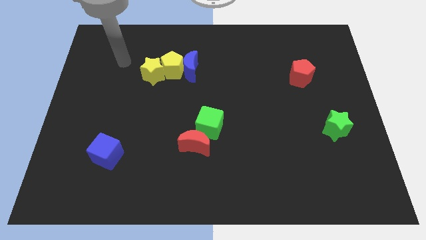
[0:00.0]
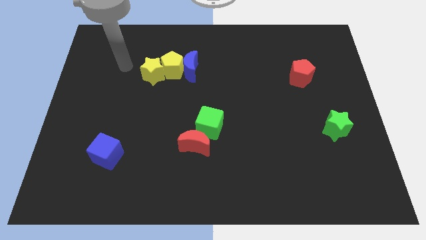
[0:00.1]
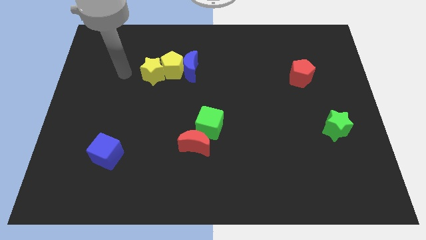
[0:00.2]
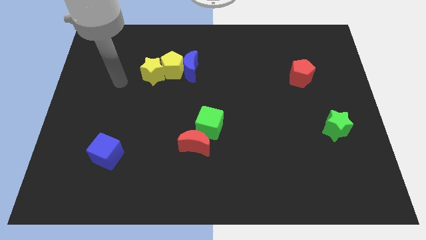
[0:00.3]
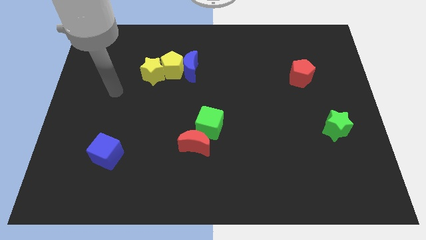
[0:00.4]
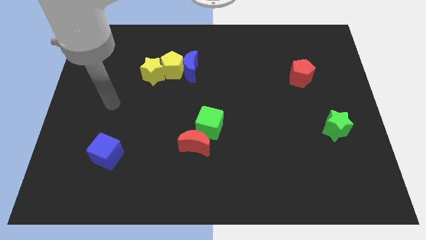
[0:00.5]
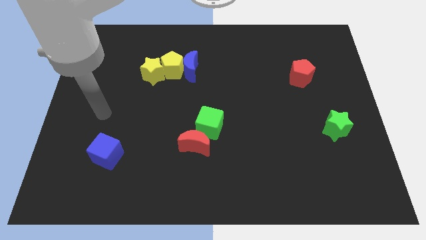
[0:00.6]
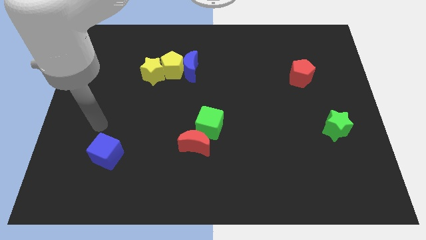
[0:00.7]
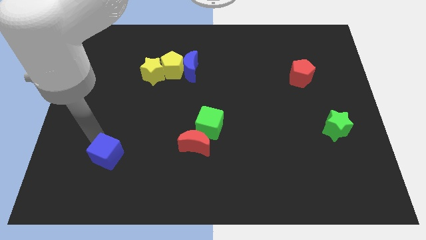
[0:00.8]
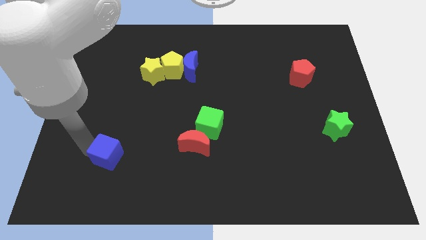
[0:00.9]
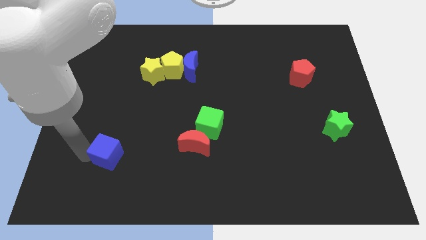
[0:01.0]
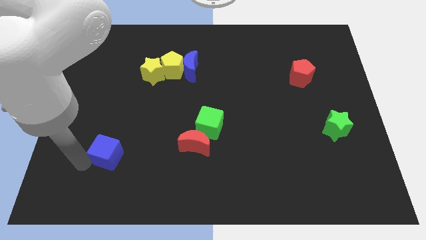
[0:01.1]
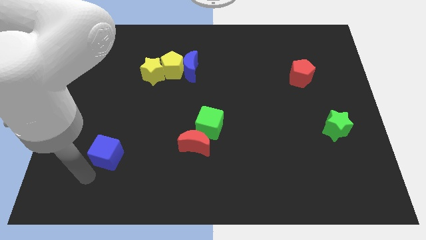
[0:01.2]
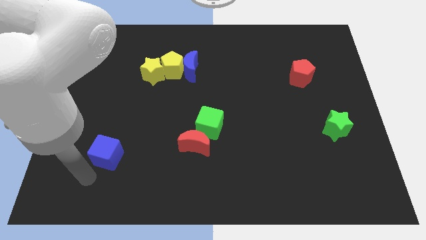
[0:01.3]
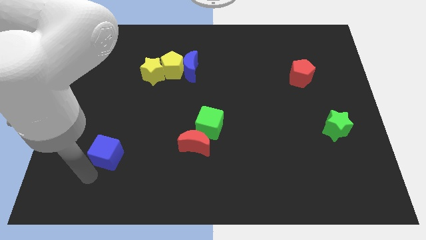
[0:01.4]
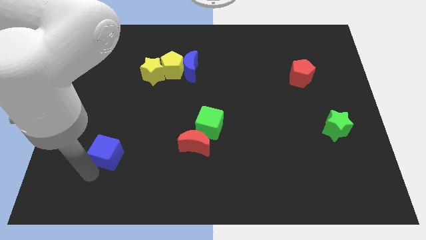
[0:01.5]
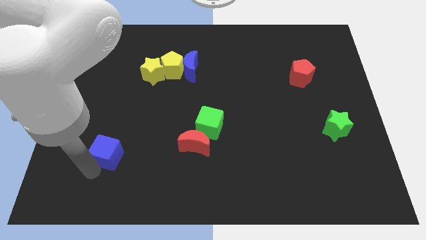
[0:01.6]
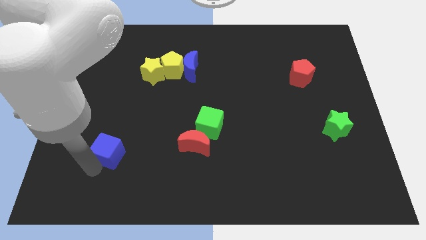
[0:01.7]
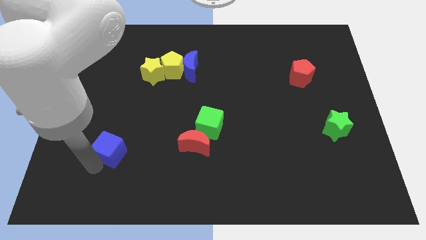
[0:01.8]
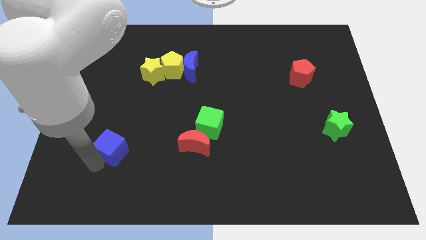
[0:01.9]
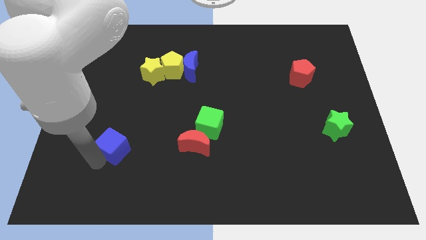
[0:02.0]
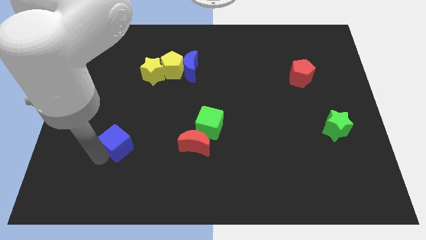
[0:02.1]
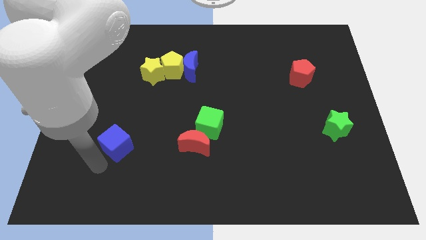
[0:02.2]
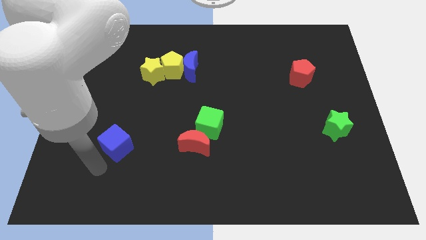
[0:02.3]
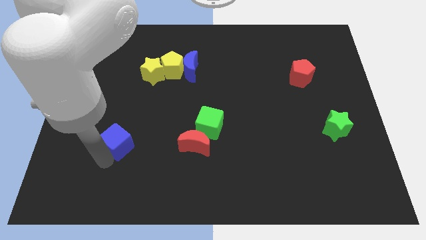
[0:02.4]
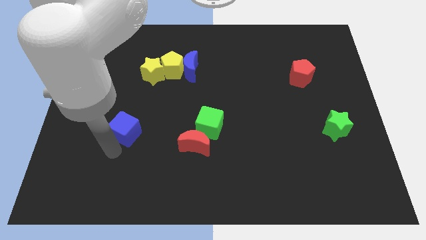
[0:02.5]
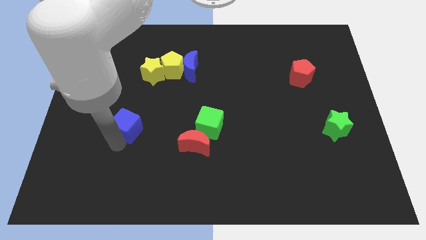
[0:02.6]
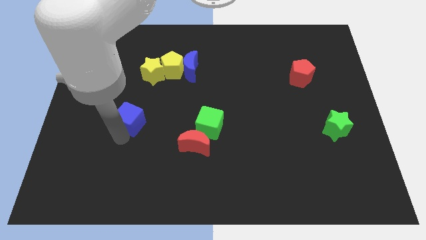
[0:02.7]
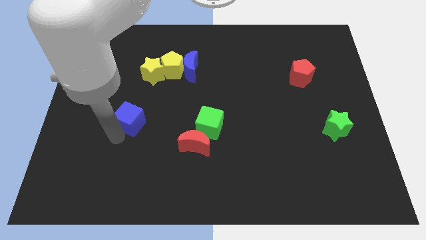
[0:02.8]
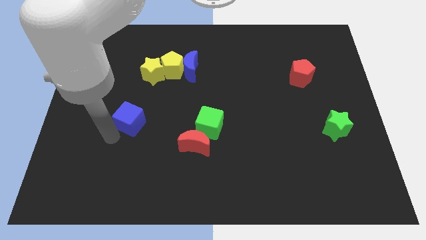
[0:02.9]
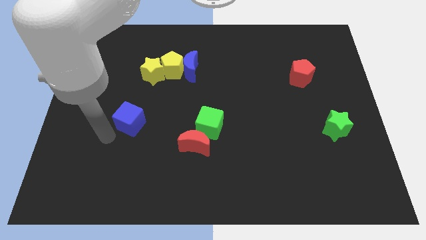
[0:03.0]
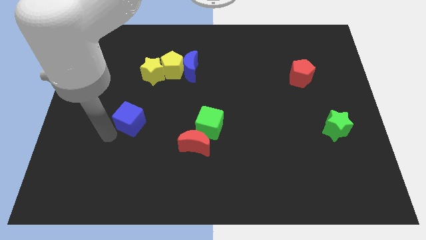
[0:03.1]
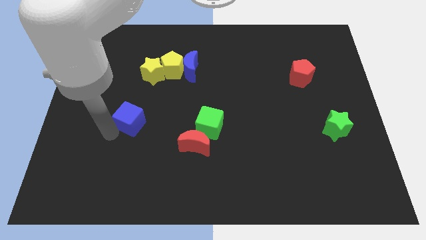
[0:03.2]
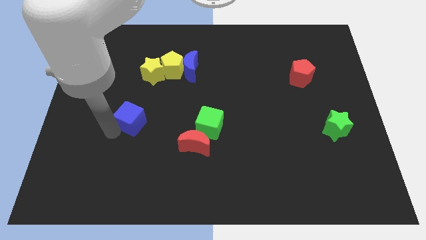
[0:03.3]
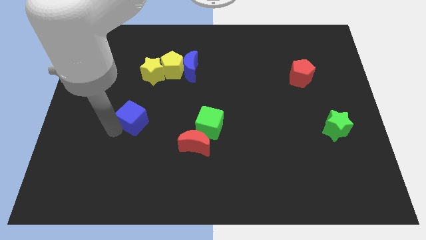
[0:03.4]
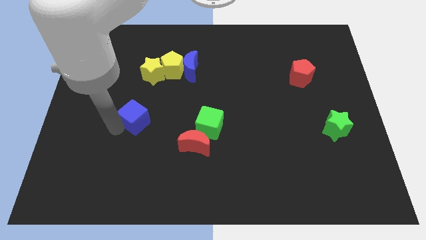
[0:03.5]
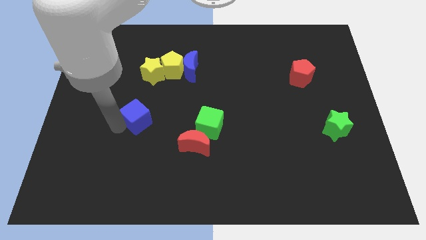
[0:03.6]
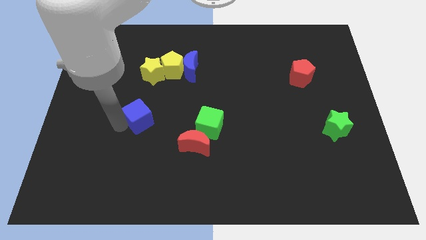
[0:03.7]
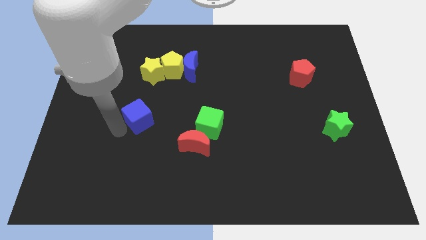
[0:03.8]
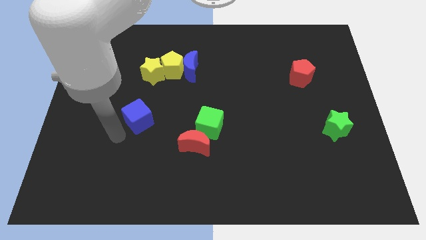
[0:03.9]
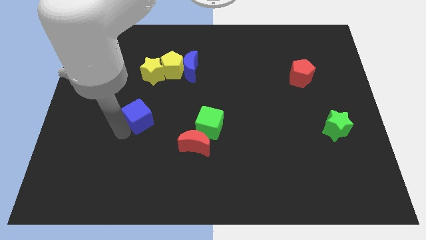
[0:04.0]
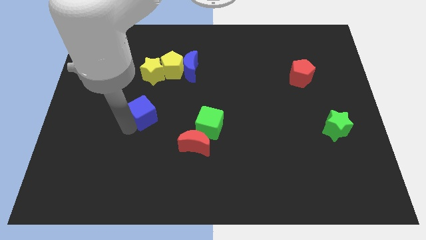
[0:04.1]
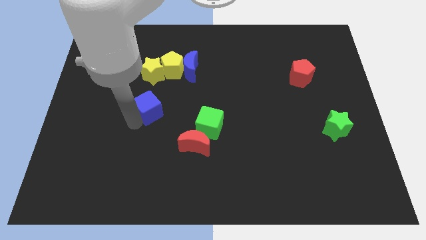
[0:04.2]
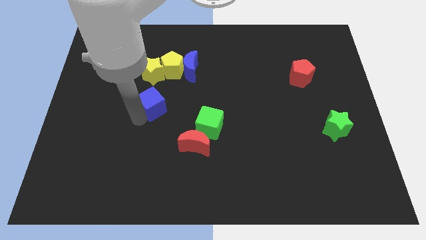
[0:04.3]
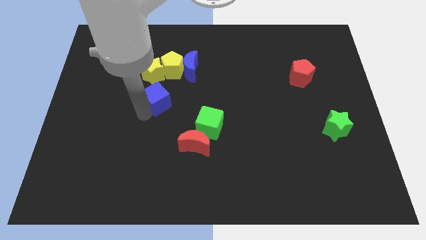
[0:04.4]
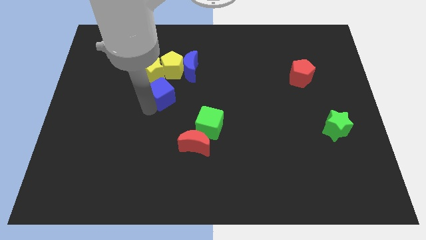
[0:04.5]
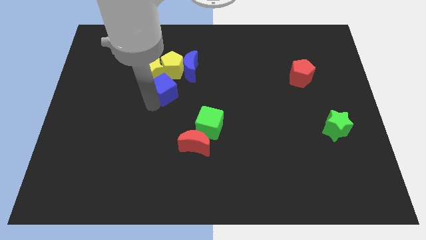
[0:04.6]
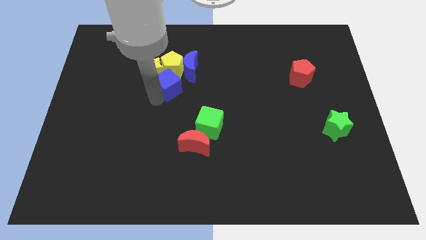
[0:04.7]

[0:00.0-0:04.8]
put the blue cube just right of the yellow star

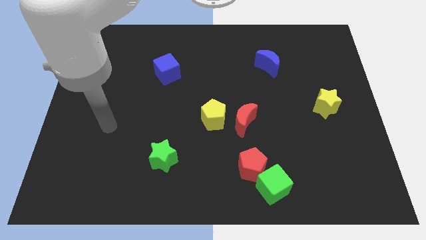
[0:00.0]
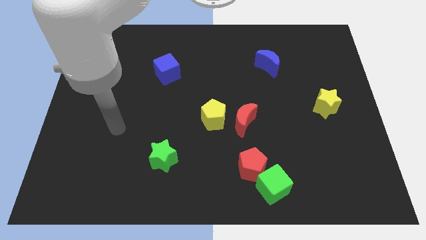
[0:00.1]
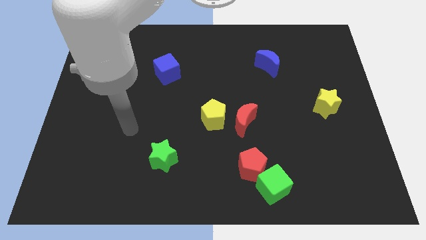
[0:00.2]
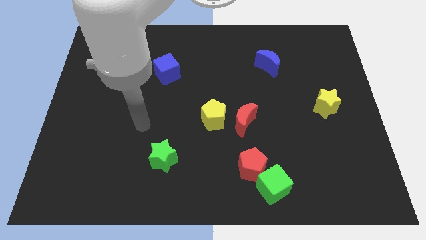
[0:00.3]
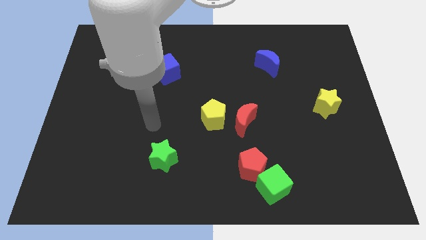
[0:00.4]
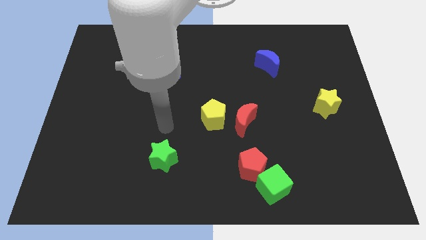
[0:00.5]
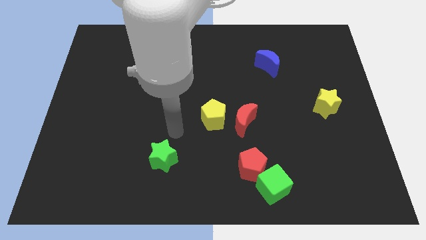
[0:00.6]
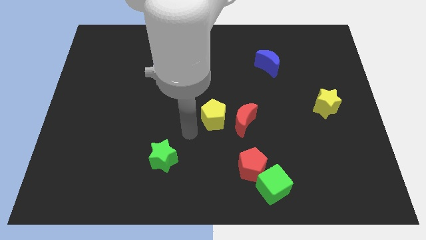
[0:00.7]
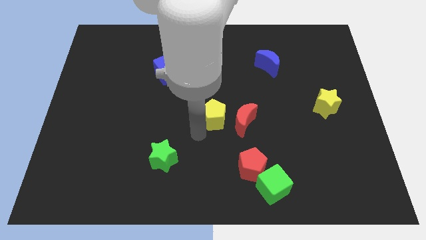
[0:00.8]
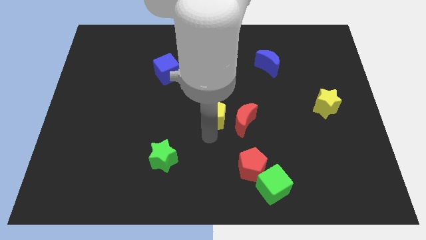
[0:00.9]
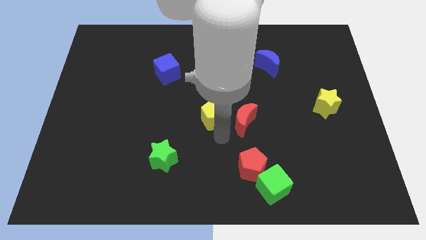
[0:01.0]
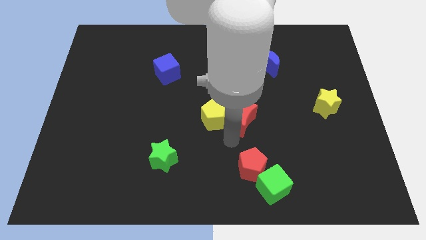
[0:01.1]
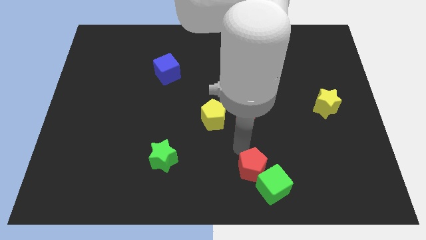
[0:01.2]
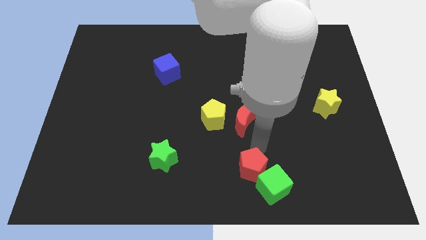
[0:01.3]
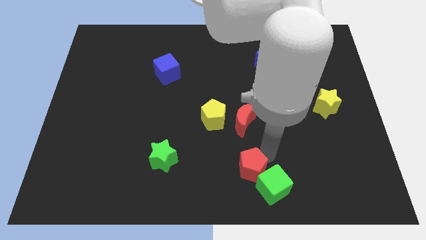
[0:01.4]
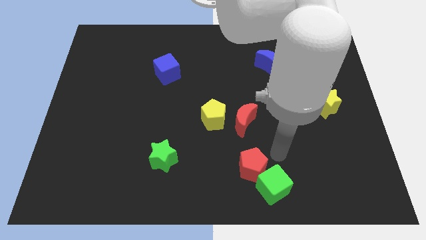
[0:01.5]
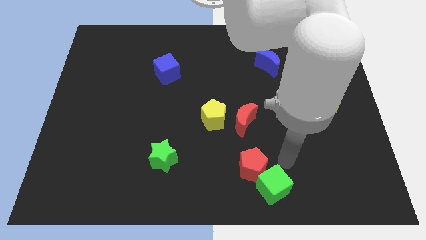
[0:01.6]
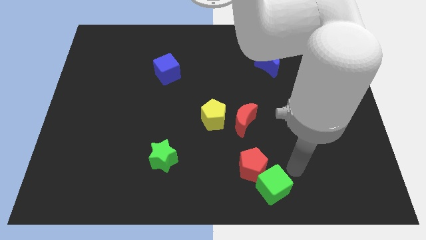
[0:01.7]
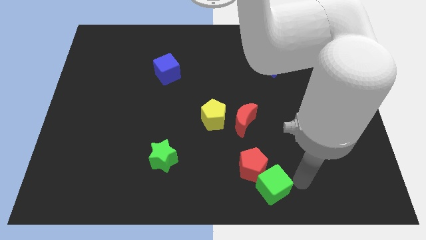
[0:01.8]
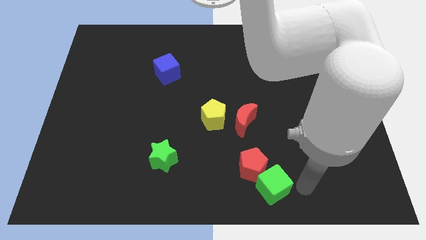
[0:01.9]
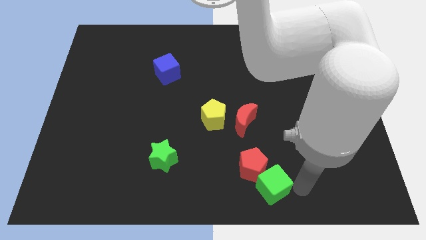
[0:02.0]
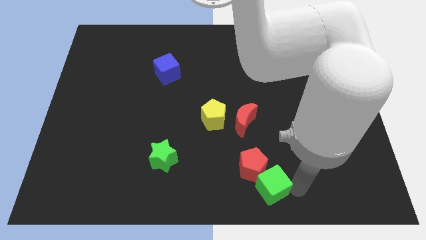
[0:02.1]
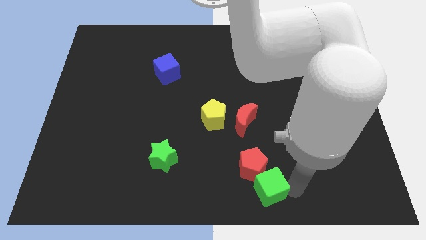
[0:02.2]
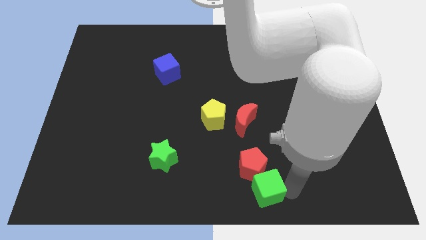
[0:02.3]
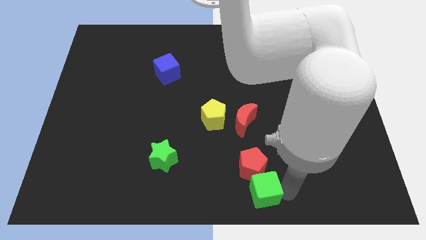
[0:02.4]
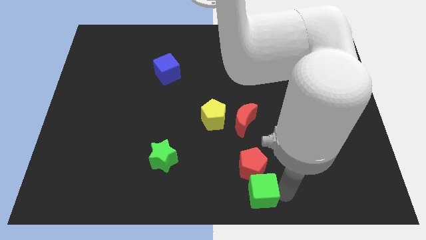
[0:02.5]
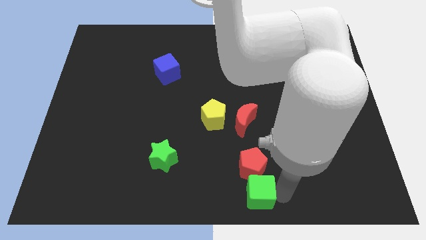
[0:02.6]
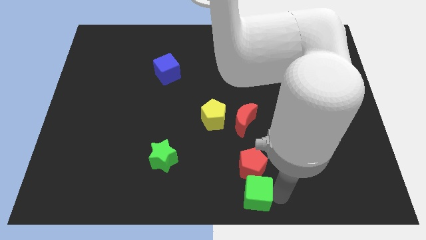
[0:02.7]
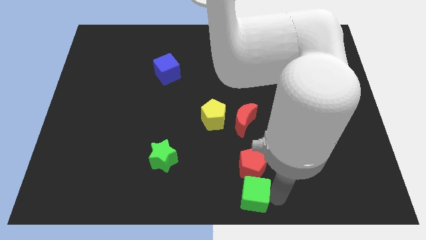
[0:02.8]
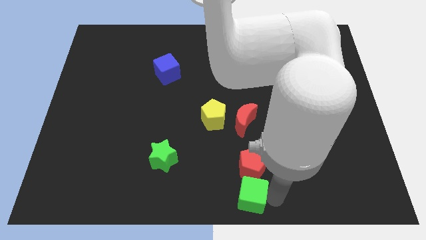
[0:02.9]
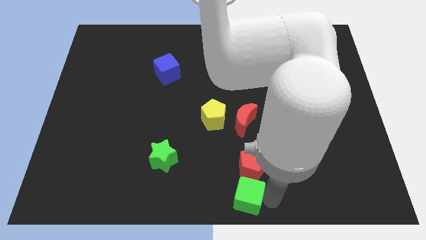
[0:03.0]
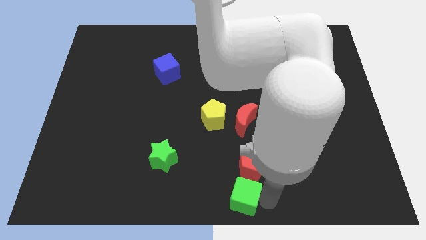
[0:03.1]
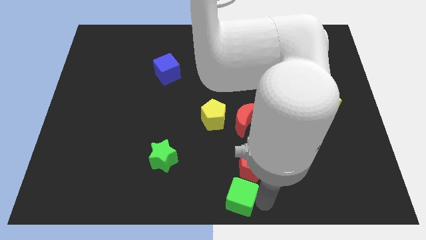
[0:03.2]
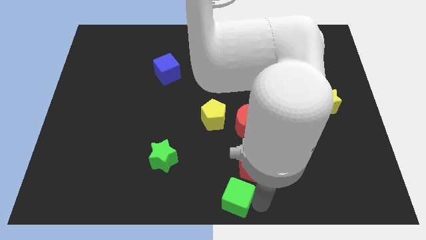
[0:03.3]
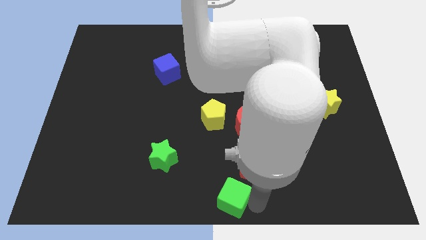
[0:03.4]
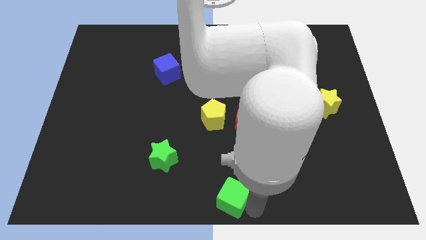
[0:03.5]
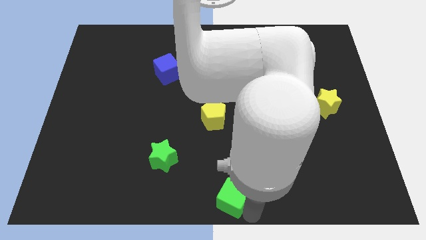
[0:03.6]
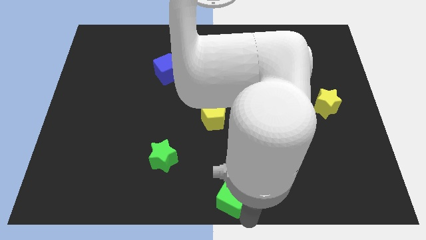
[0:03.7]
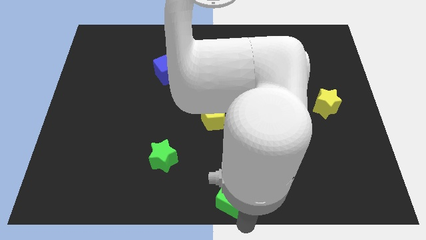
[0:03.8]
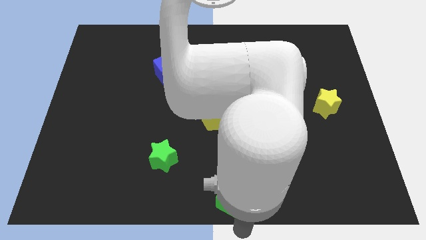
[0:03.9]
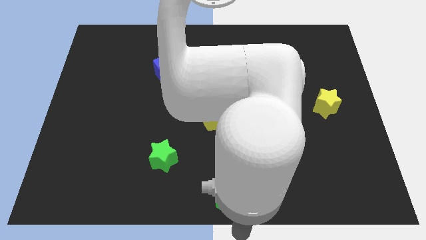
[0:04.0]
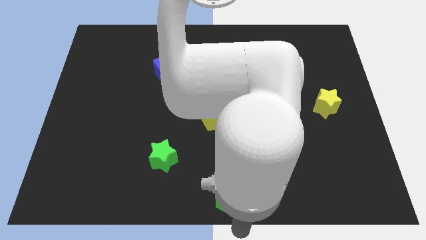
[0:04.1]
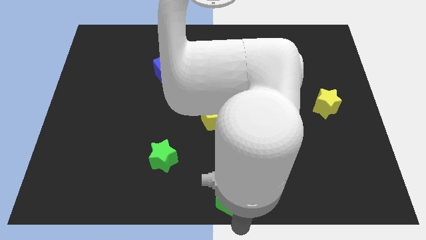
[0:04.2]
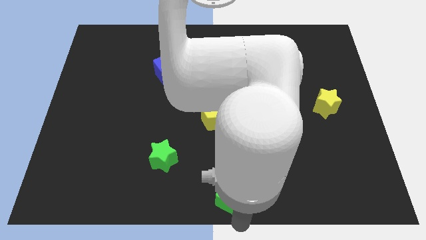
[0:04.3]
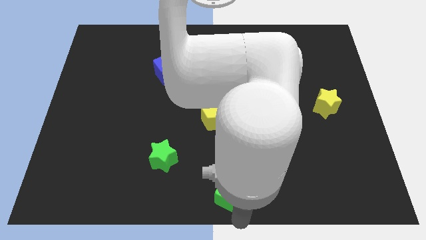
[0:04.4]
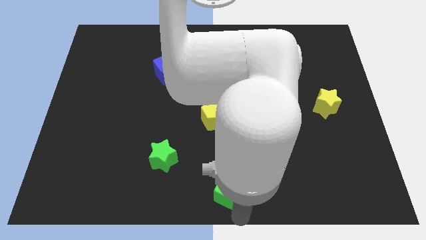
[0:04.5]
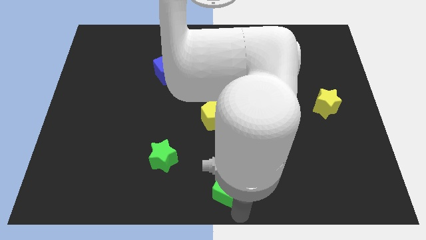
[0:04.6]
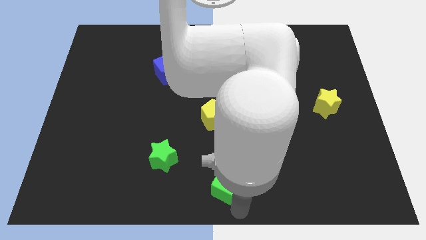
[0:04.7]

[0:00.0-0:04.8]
move the green cube just left of the red pentagon
